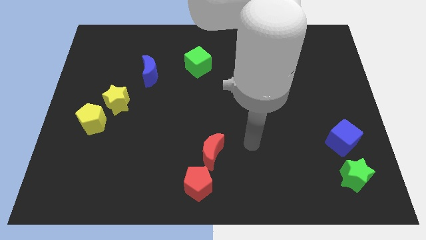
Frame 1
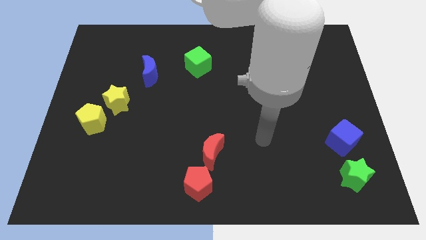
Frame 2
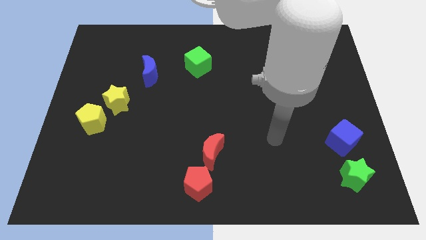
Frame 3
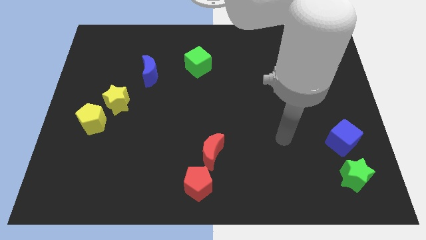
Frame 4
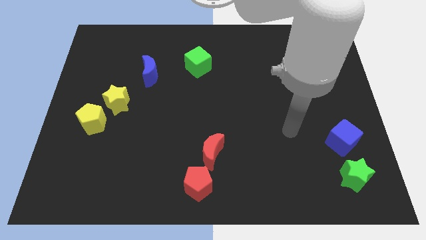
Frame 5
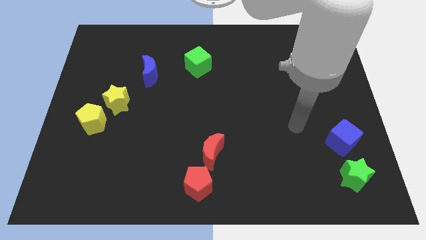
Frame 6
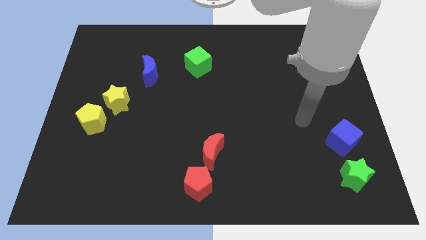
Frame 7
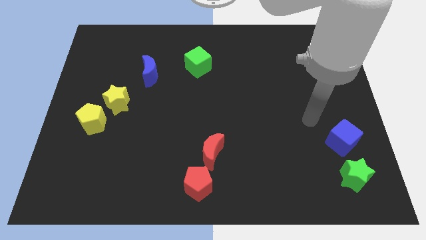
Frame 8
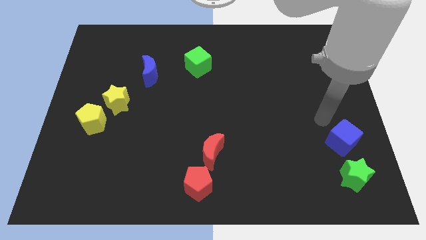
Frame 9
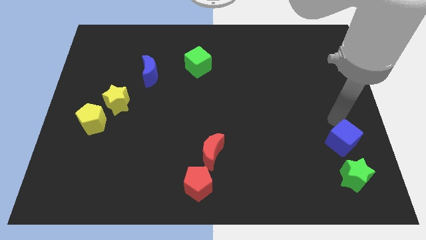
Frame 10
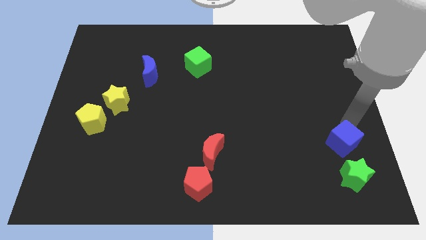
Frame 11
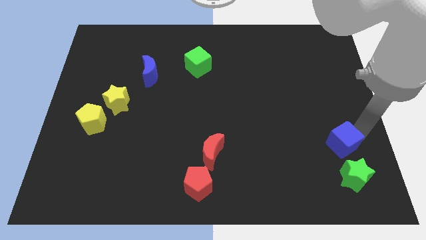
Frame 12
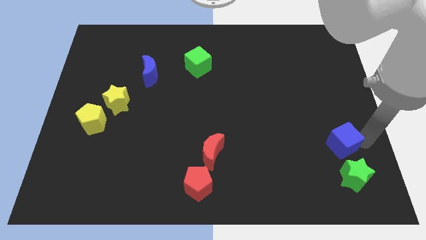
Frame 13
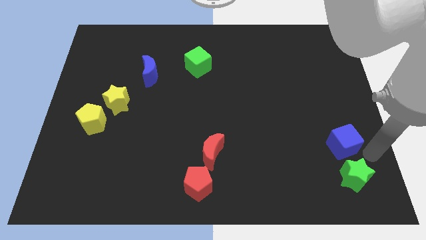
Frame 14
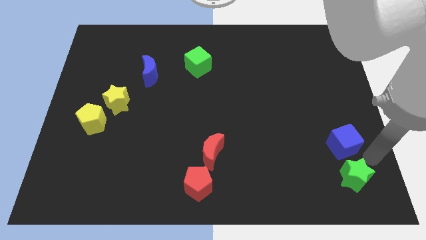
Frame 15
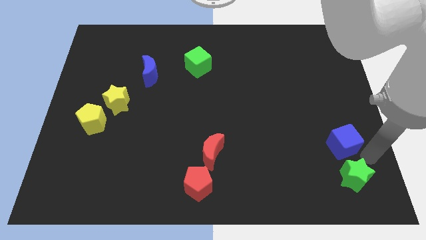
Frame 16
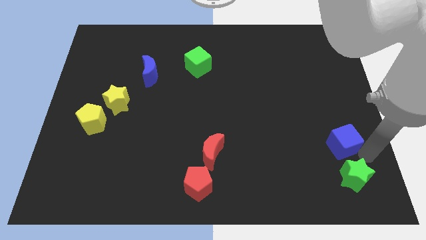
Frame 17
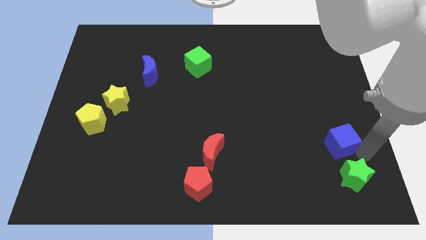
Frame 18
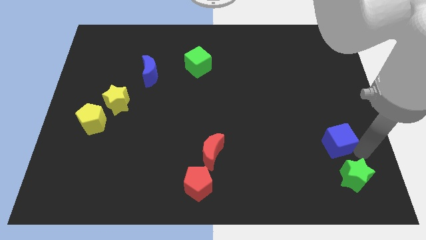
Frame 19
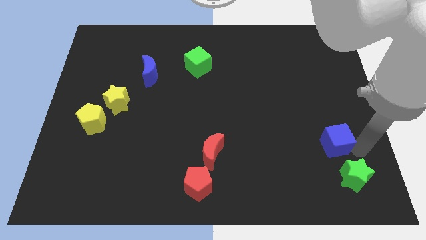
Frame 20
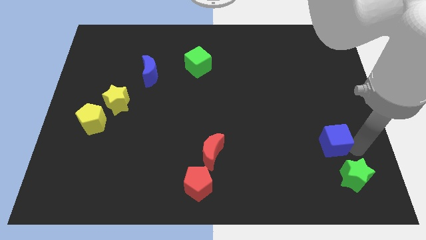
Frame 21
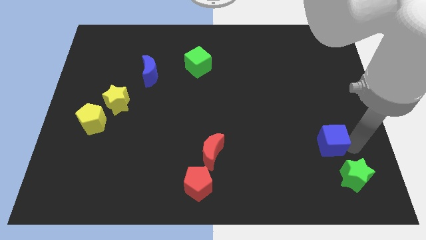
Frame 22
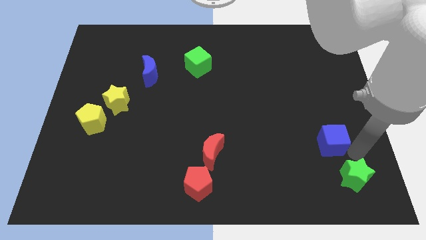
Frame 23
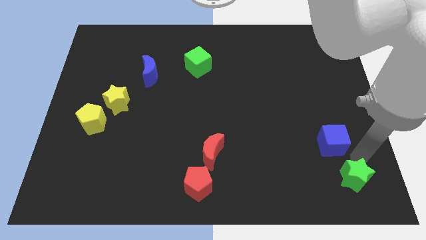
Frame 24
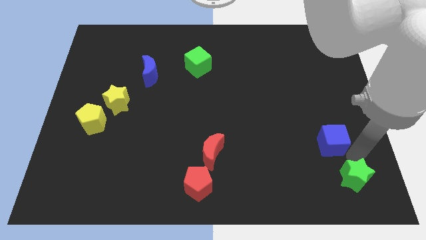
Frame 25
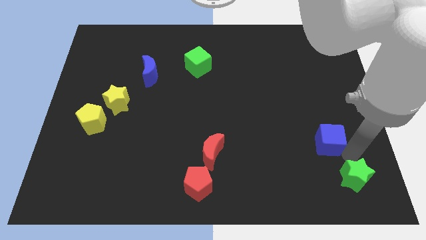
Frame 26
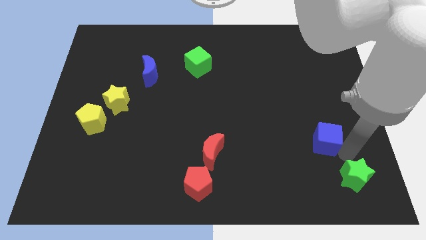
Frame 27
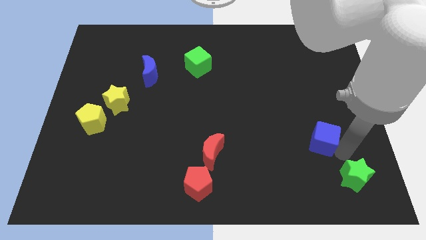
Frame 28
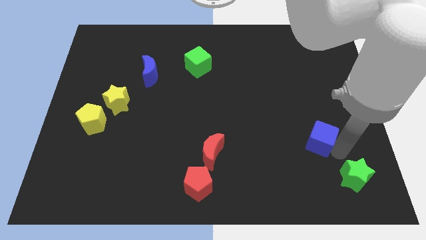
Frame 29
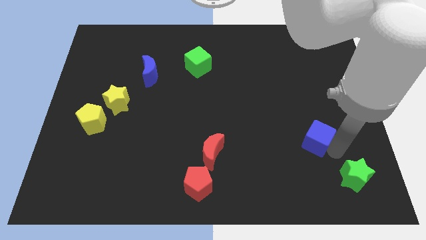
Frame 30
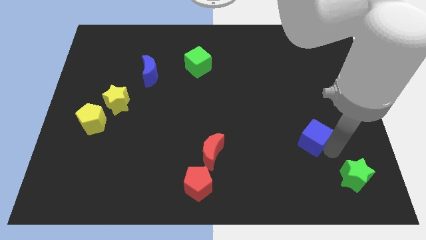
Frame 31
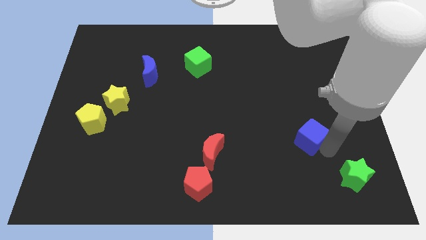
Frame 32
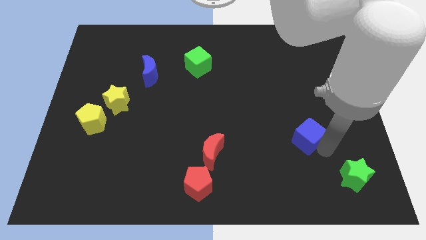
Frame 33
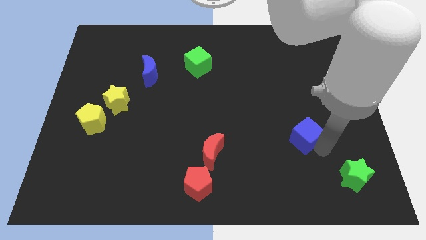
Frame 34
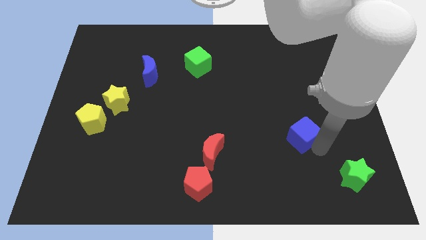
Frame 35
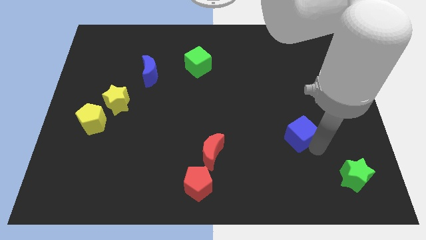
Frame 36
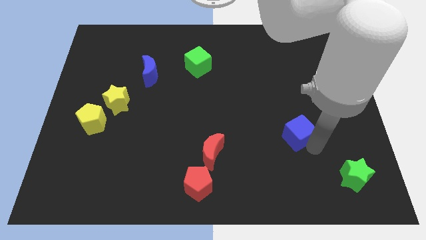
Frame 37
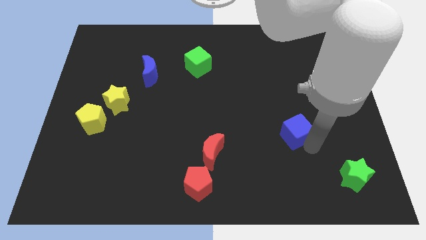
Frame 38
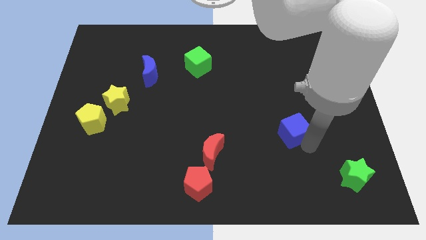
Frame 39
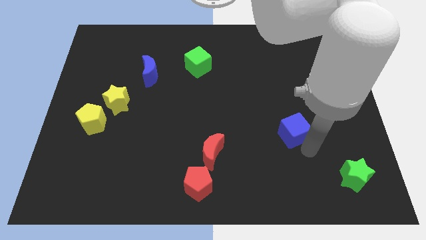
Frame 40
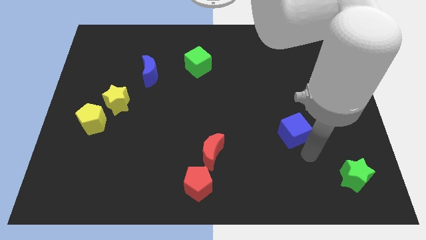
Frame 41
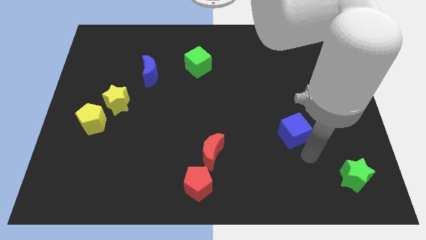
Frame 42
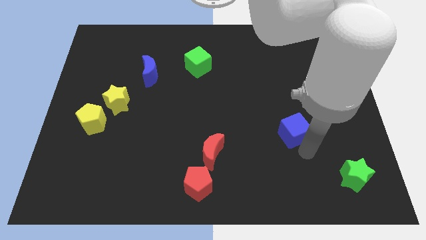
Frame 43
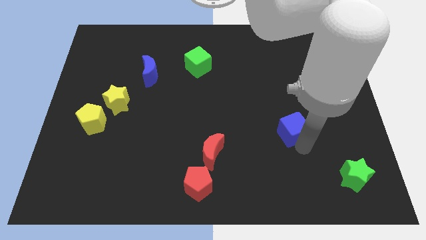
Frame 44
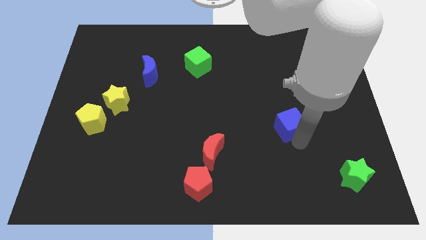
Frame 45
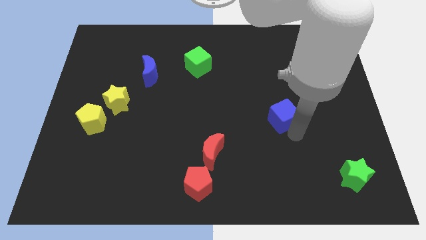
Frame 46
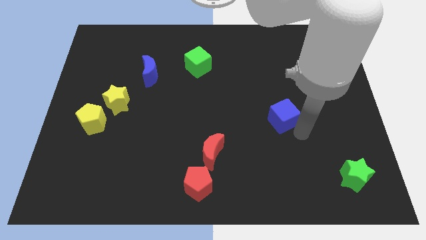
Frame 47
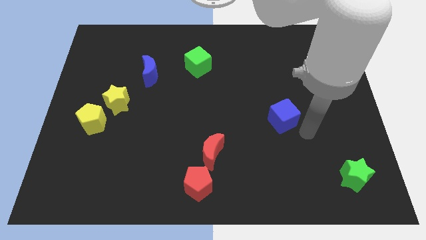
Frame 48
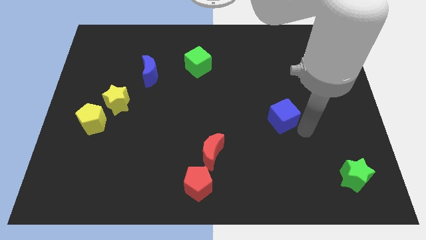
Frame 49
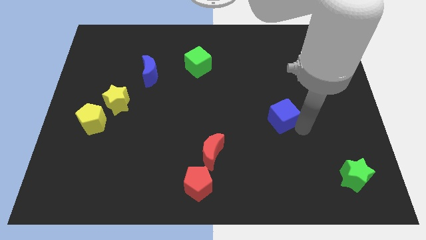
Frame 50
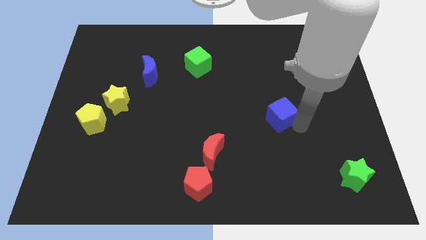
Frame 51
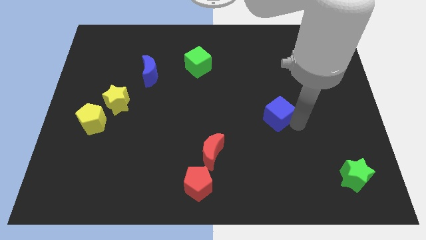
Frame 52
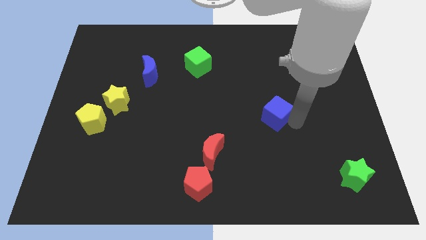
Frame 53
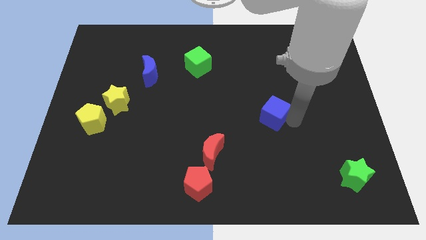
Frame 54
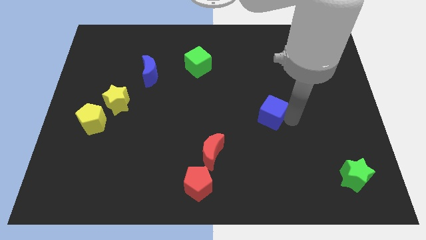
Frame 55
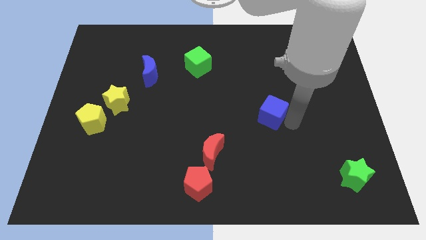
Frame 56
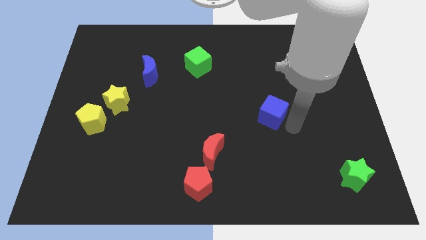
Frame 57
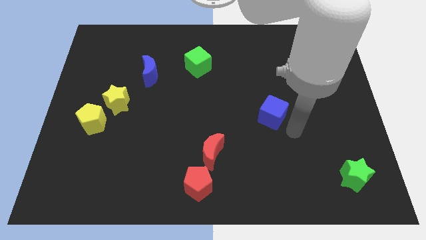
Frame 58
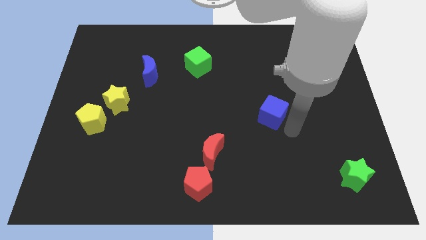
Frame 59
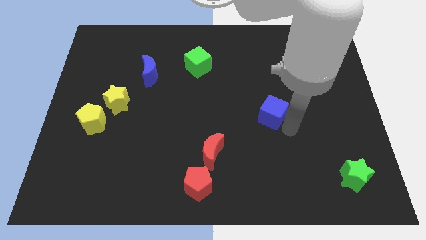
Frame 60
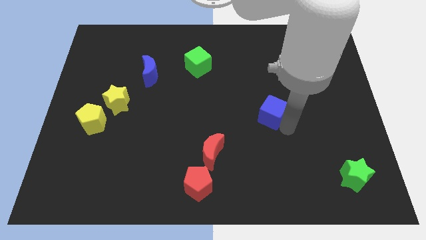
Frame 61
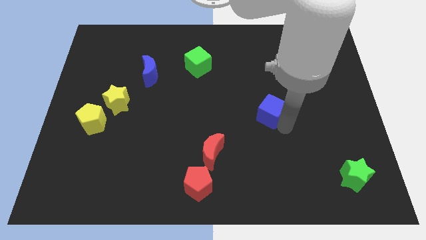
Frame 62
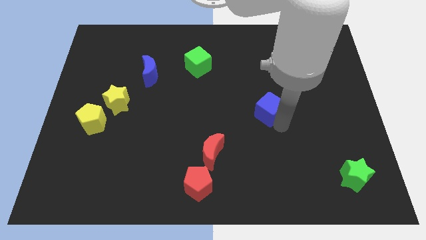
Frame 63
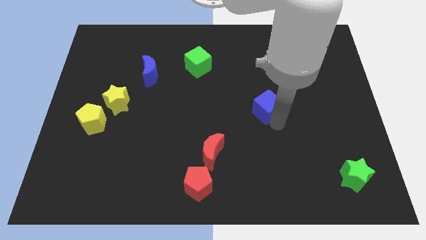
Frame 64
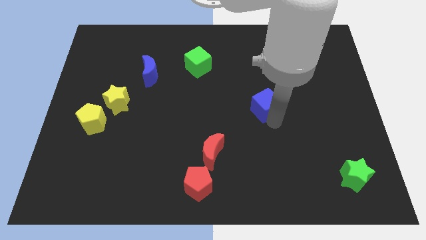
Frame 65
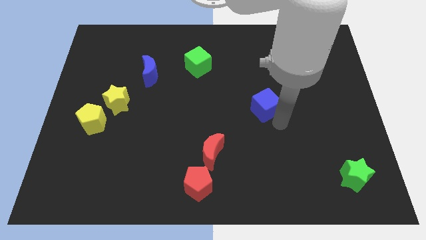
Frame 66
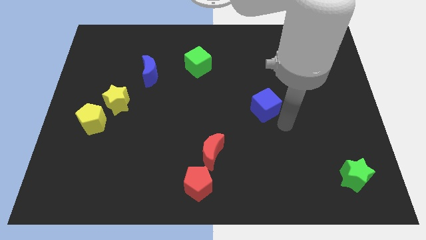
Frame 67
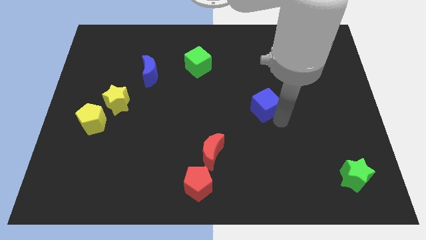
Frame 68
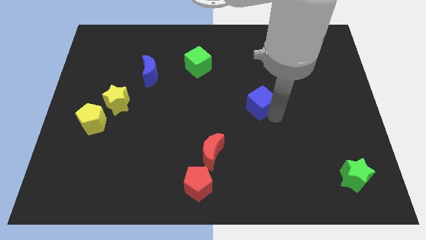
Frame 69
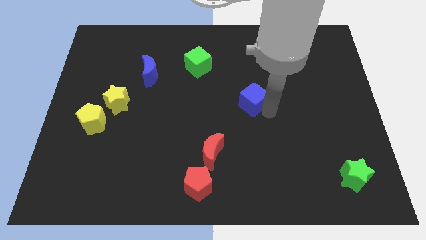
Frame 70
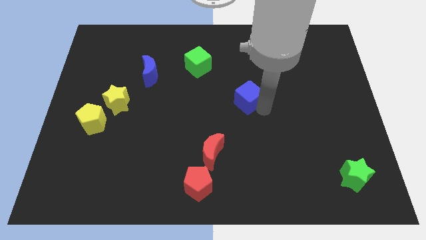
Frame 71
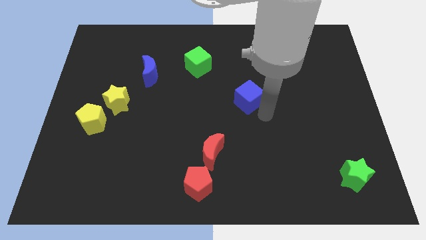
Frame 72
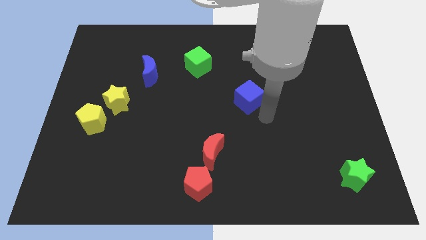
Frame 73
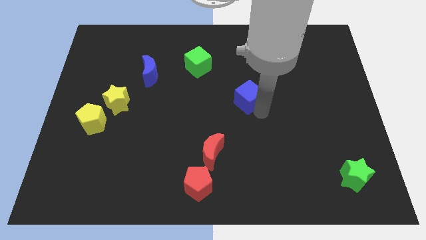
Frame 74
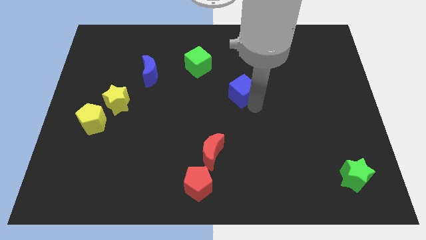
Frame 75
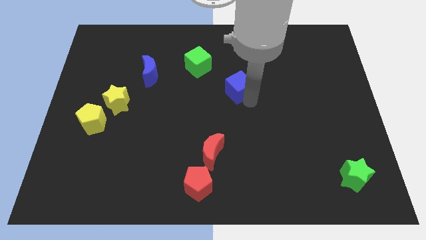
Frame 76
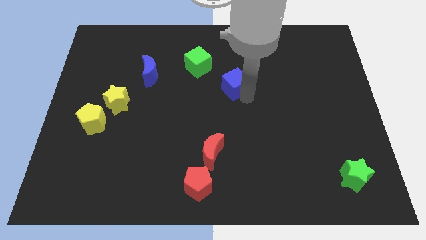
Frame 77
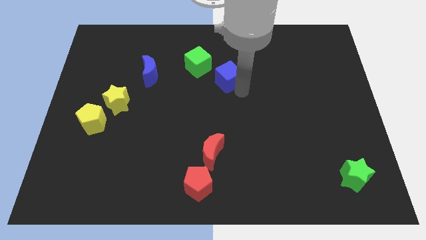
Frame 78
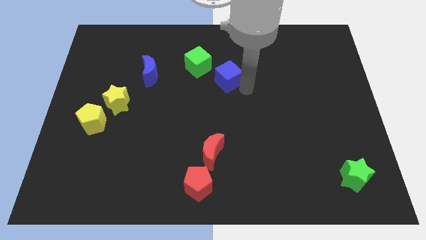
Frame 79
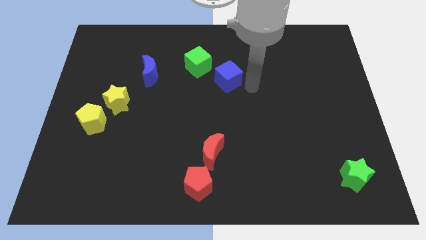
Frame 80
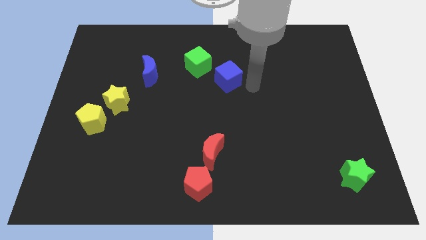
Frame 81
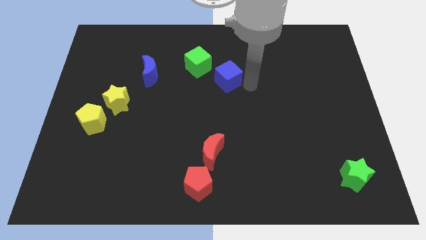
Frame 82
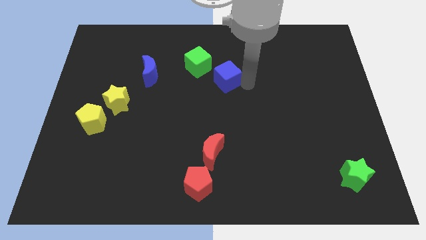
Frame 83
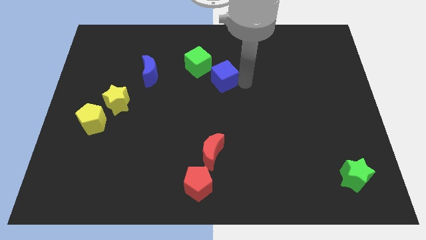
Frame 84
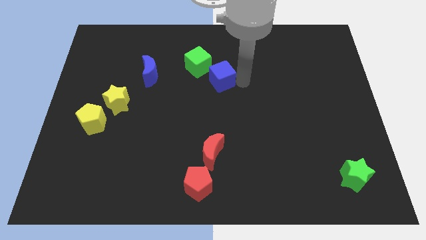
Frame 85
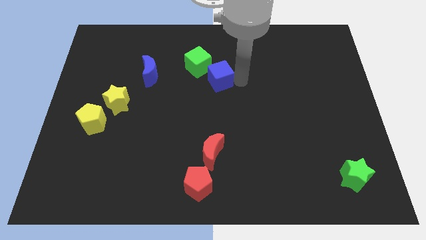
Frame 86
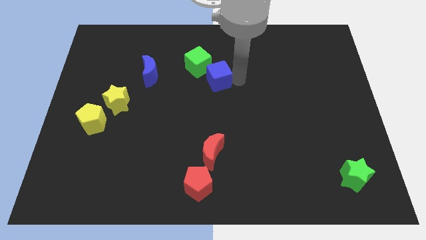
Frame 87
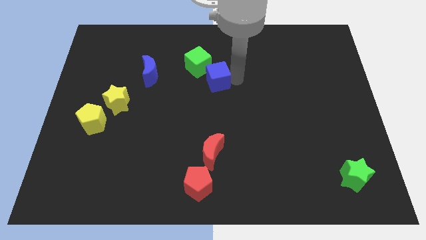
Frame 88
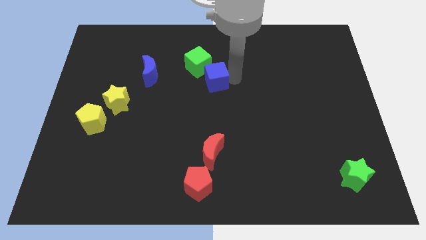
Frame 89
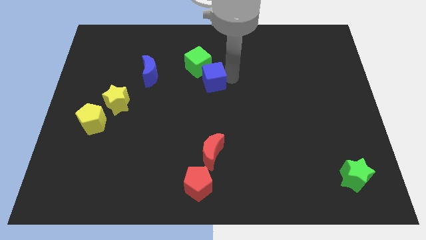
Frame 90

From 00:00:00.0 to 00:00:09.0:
put the blue cube to the right side of the blue moon
